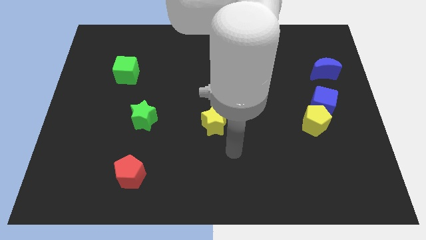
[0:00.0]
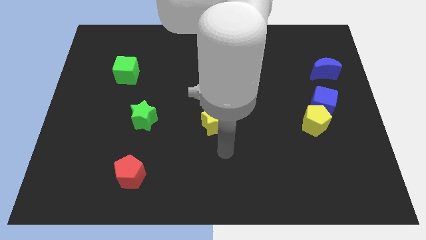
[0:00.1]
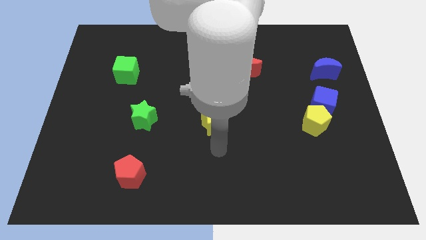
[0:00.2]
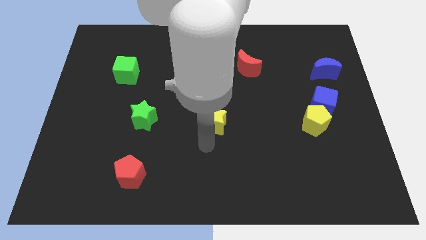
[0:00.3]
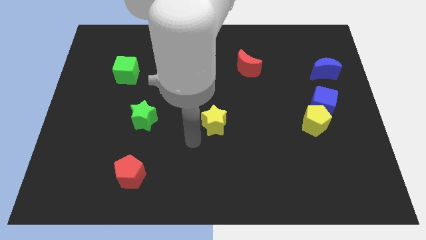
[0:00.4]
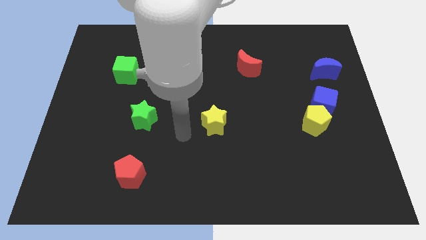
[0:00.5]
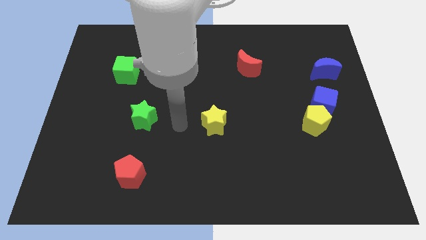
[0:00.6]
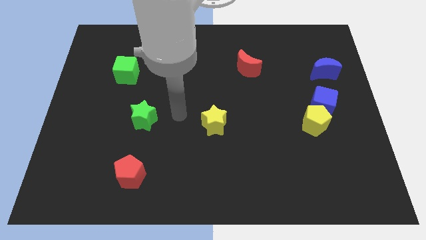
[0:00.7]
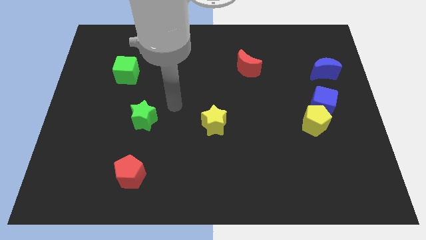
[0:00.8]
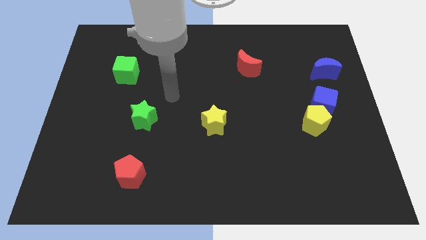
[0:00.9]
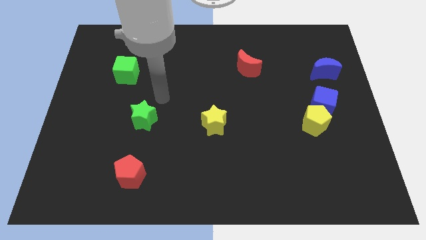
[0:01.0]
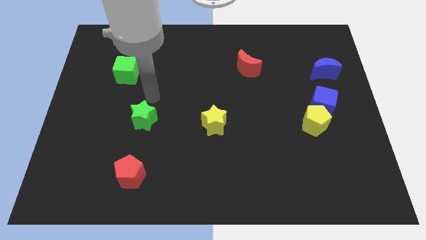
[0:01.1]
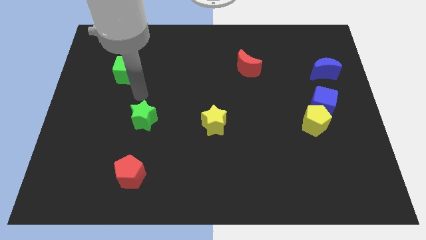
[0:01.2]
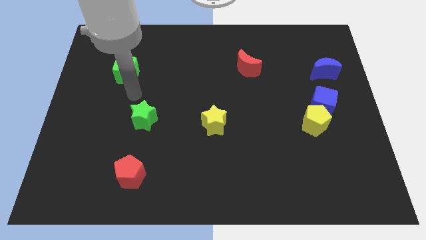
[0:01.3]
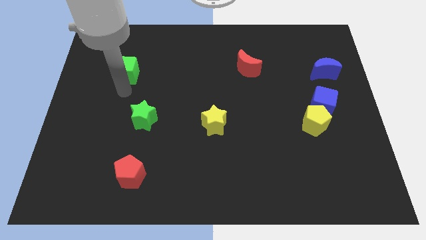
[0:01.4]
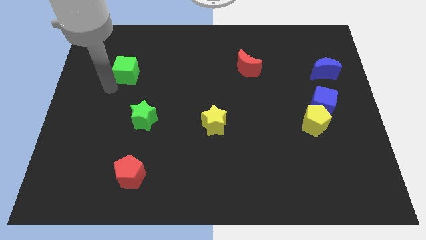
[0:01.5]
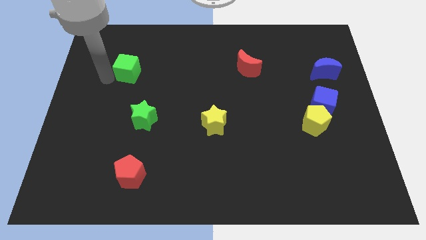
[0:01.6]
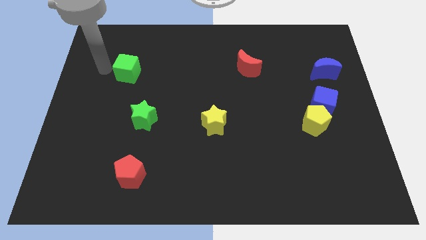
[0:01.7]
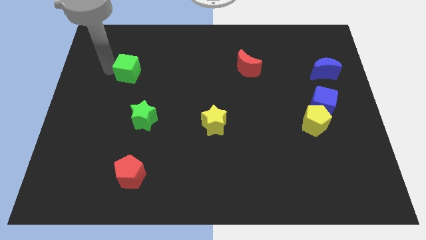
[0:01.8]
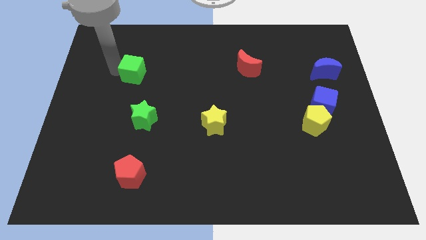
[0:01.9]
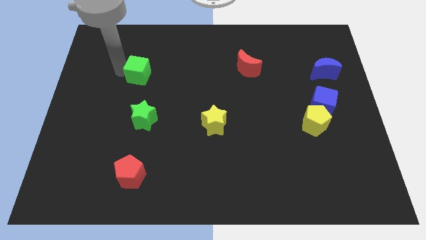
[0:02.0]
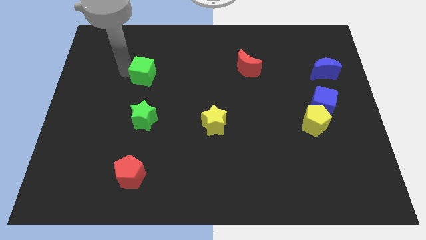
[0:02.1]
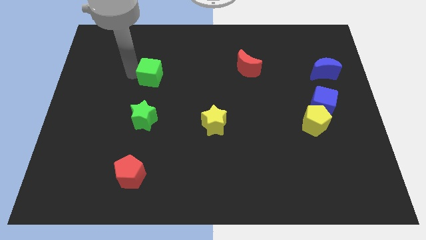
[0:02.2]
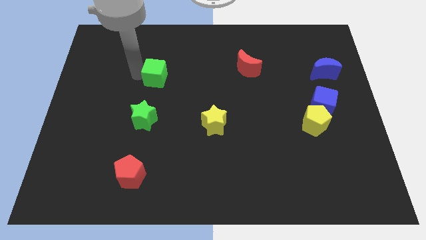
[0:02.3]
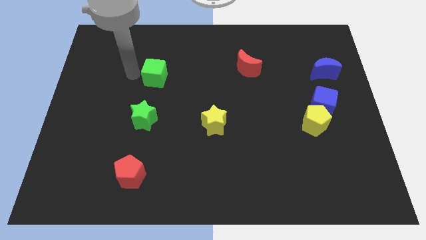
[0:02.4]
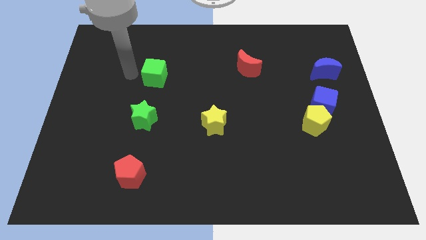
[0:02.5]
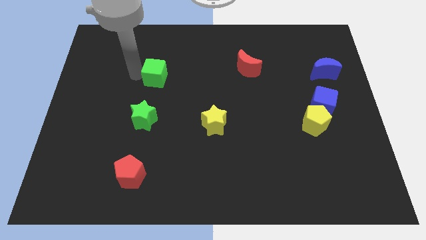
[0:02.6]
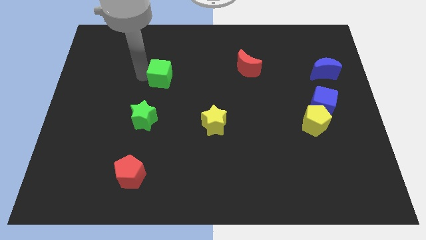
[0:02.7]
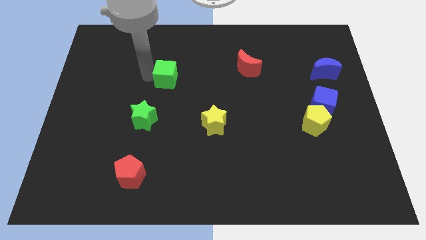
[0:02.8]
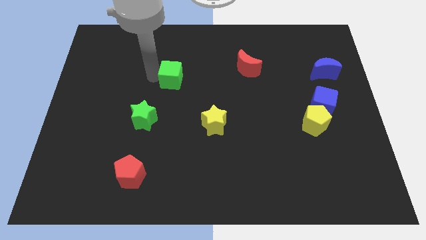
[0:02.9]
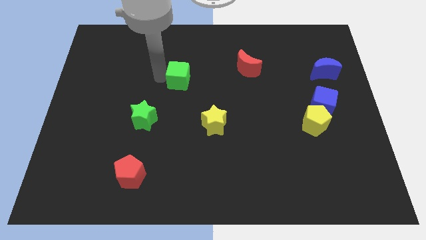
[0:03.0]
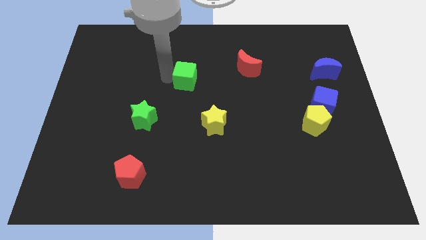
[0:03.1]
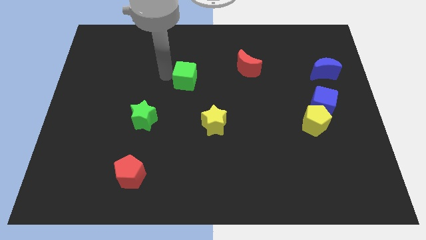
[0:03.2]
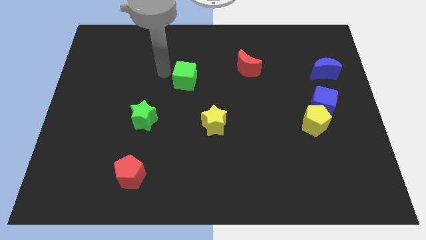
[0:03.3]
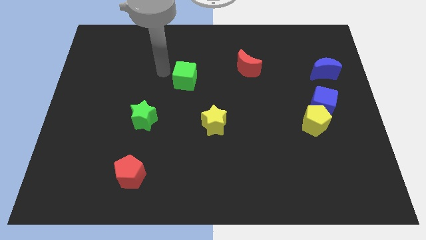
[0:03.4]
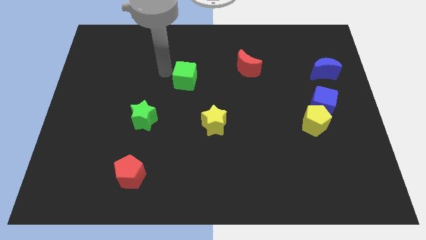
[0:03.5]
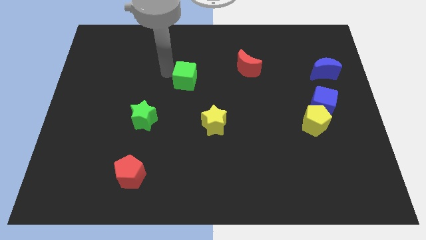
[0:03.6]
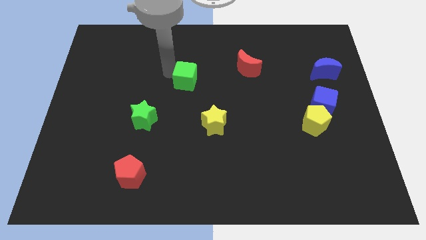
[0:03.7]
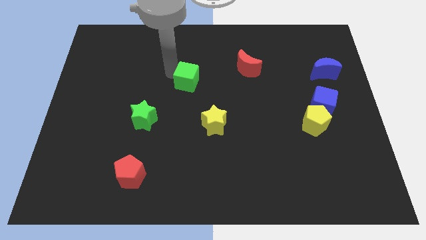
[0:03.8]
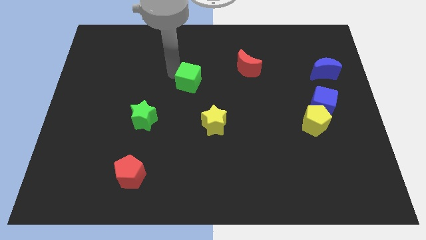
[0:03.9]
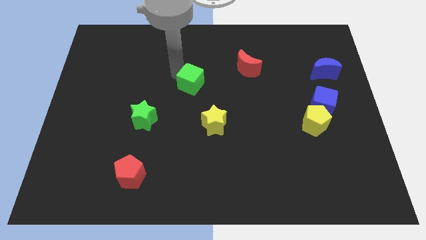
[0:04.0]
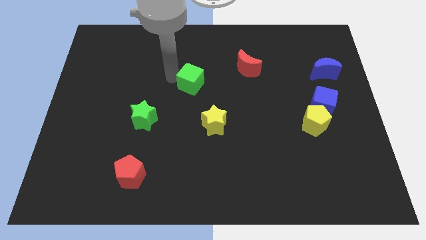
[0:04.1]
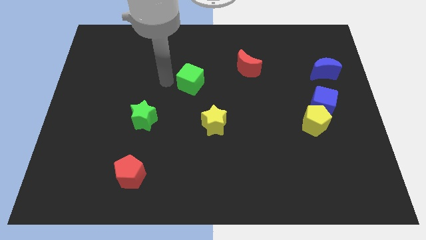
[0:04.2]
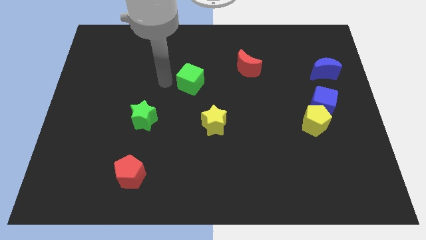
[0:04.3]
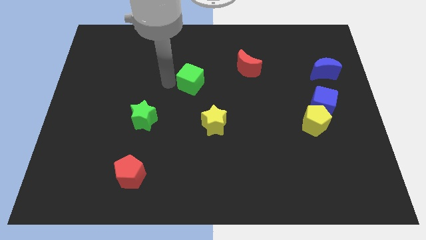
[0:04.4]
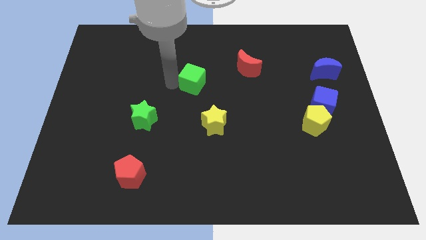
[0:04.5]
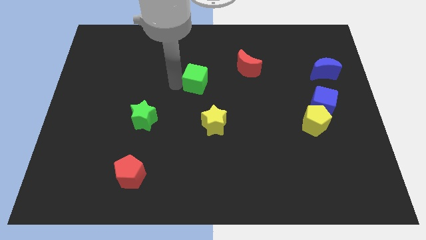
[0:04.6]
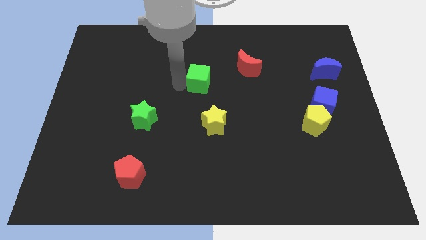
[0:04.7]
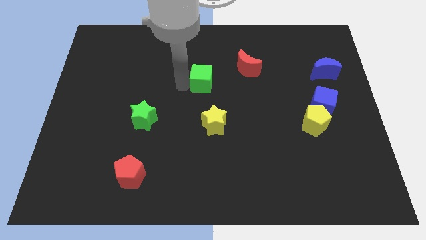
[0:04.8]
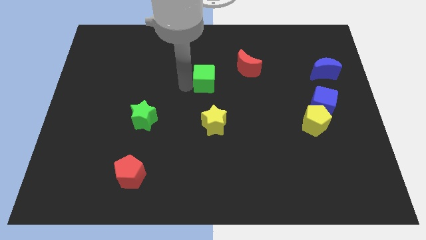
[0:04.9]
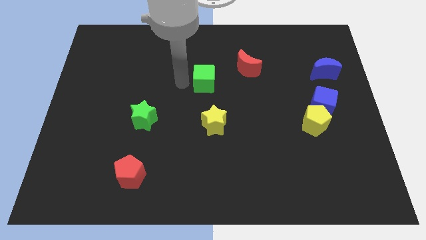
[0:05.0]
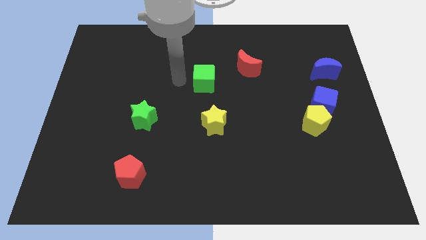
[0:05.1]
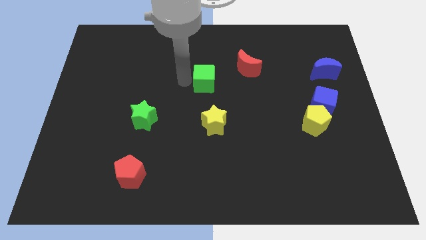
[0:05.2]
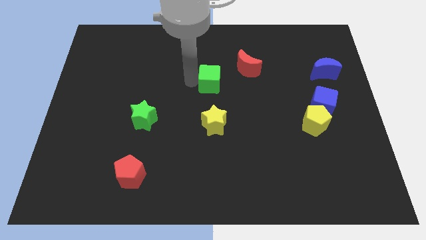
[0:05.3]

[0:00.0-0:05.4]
slide the green cube diagonally down and to the left of the red moon

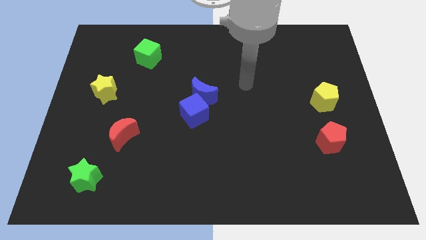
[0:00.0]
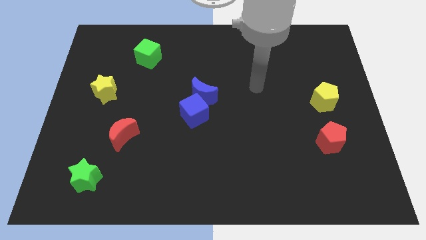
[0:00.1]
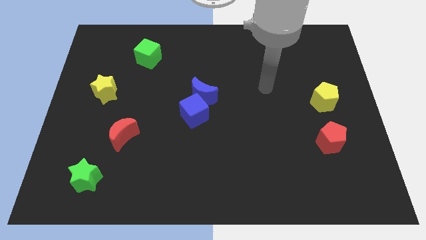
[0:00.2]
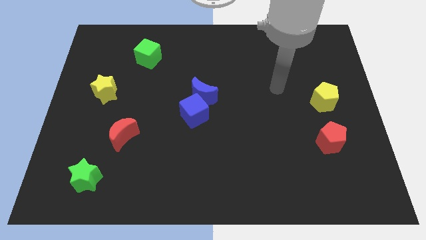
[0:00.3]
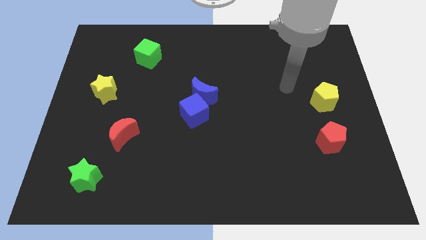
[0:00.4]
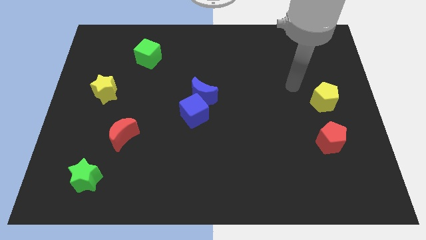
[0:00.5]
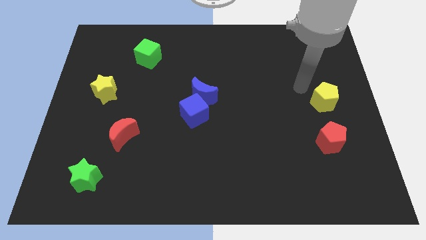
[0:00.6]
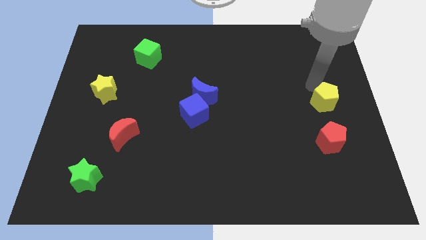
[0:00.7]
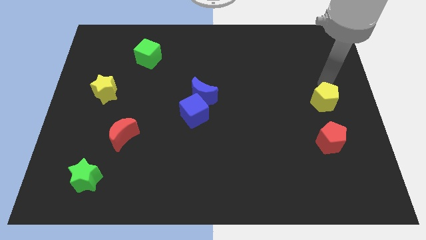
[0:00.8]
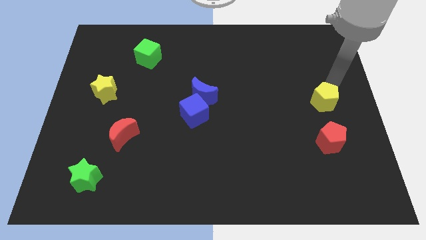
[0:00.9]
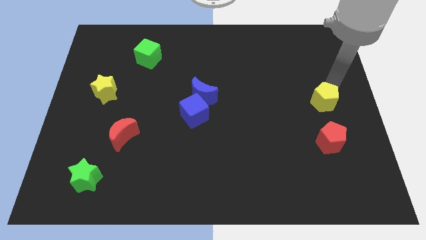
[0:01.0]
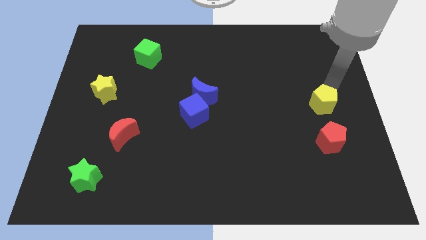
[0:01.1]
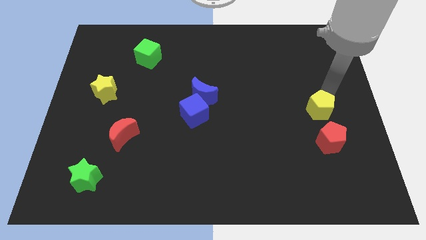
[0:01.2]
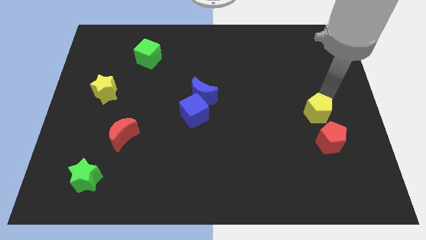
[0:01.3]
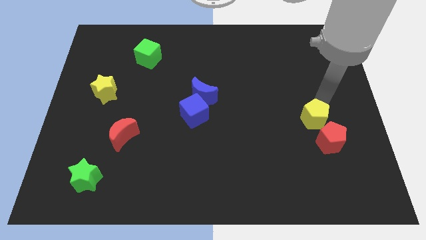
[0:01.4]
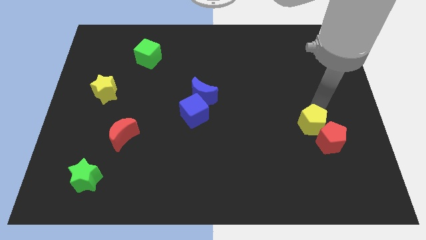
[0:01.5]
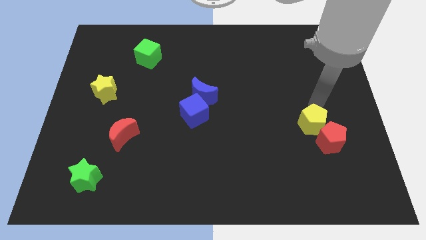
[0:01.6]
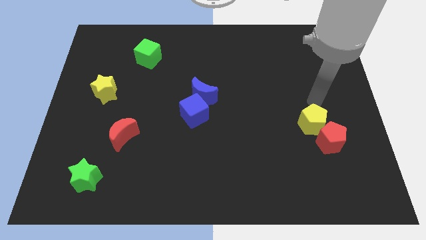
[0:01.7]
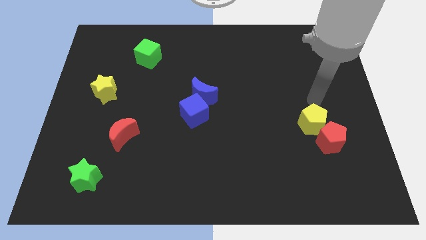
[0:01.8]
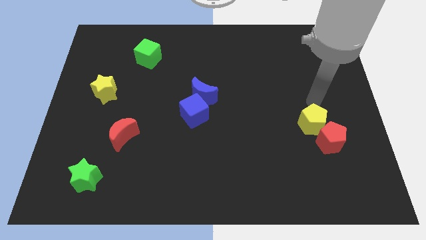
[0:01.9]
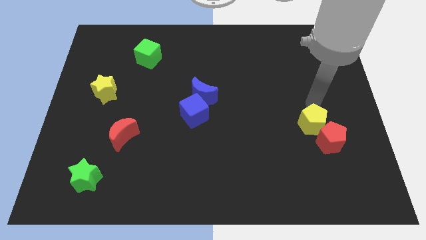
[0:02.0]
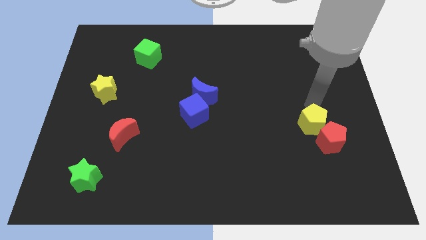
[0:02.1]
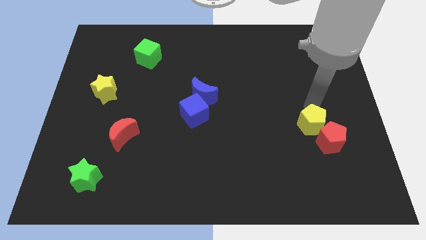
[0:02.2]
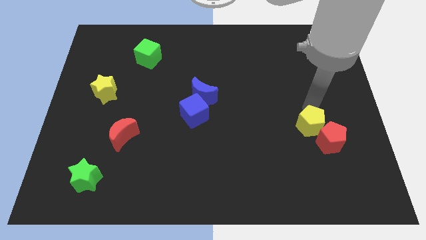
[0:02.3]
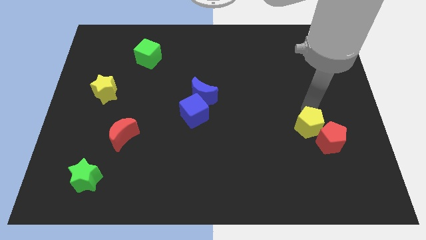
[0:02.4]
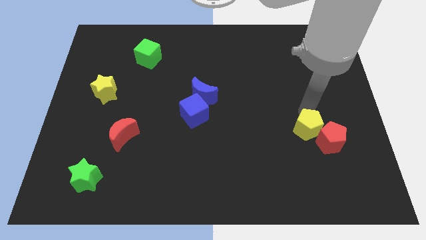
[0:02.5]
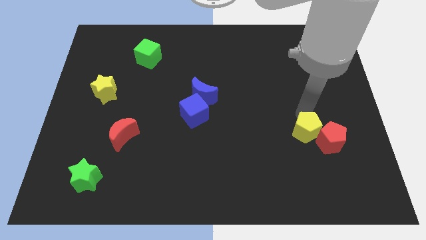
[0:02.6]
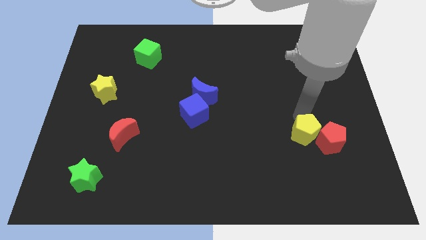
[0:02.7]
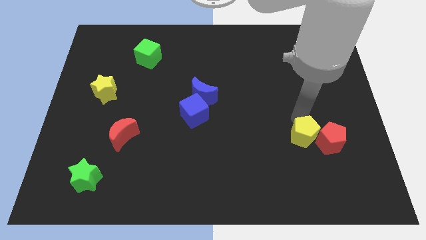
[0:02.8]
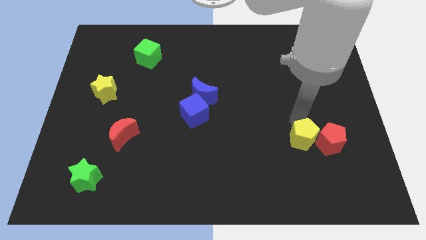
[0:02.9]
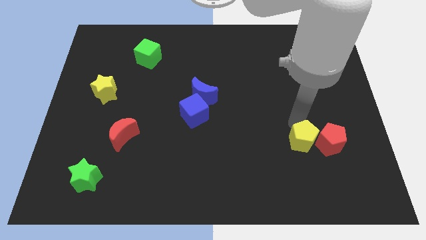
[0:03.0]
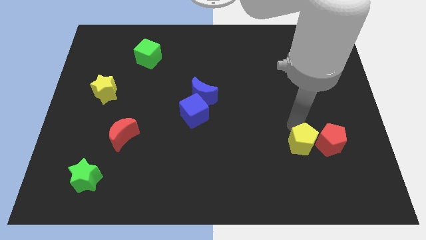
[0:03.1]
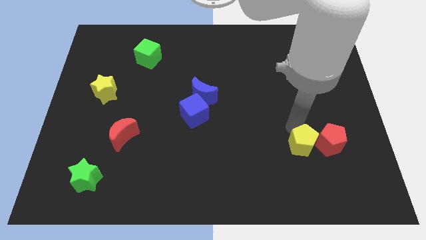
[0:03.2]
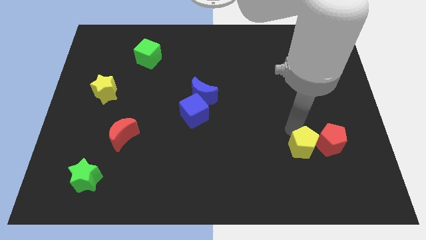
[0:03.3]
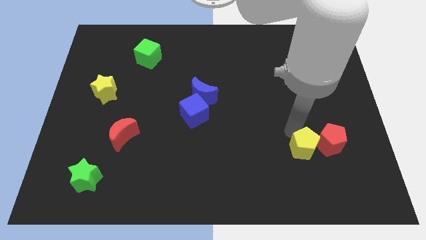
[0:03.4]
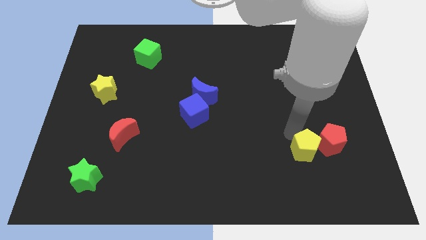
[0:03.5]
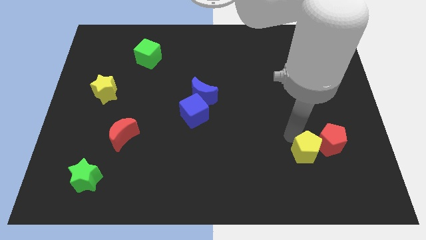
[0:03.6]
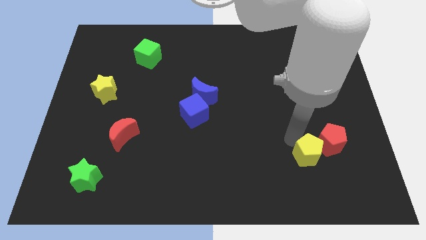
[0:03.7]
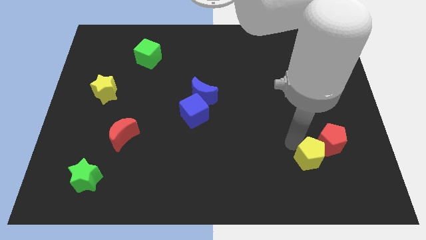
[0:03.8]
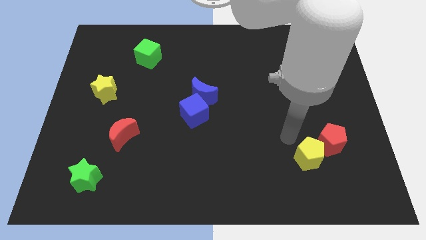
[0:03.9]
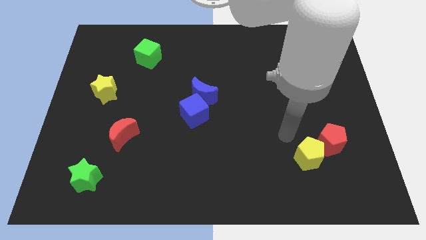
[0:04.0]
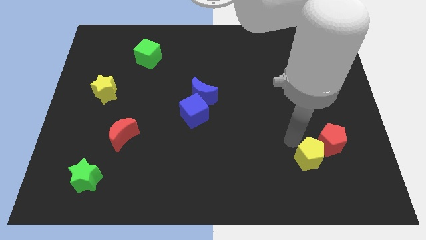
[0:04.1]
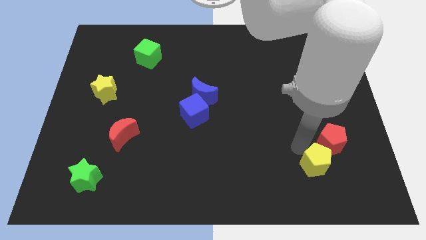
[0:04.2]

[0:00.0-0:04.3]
slide the yellow pentagon below the red pentagon
